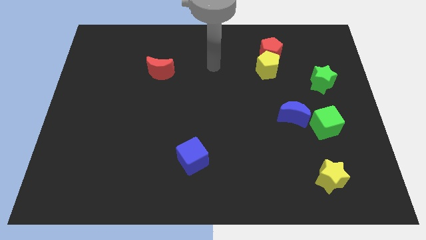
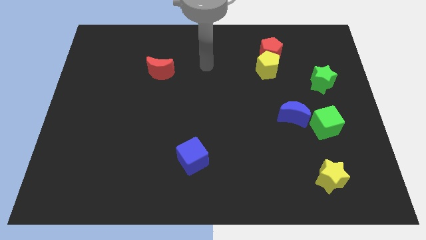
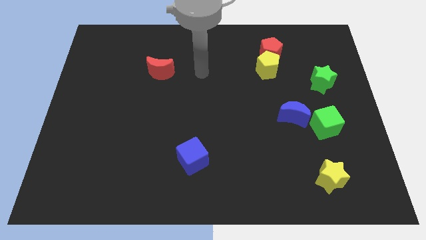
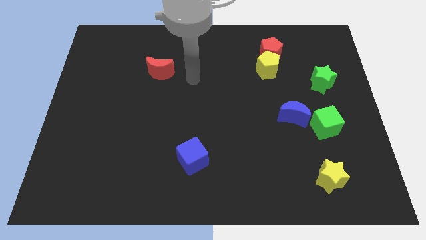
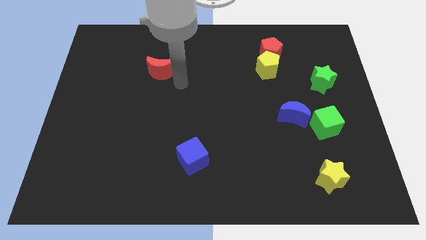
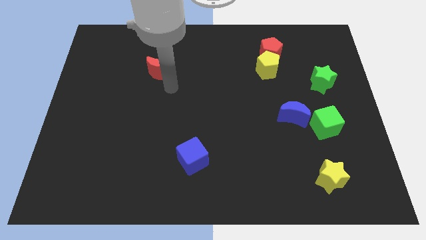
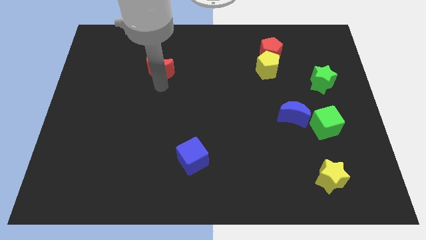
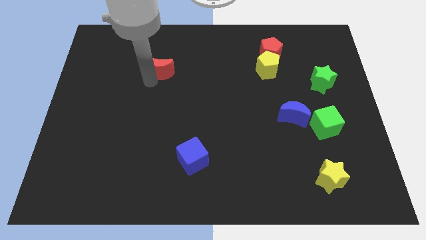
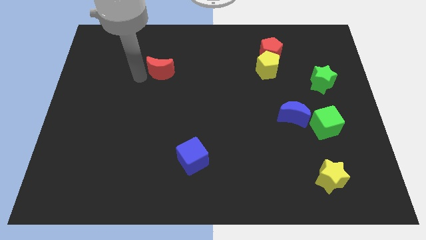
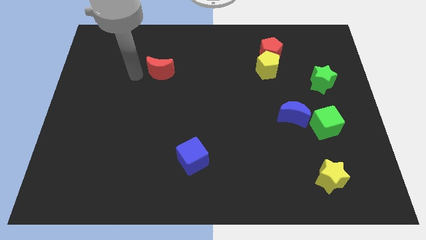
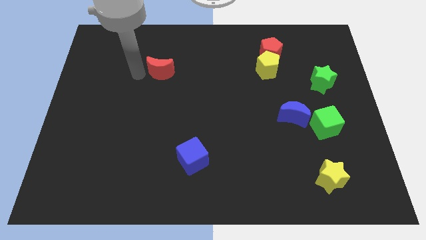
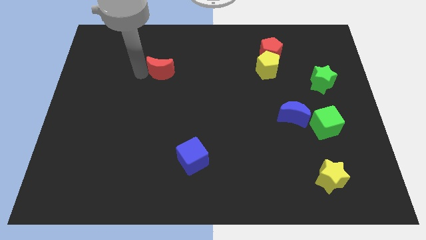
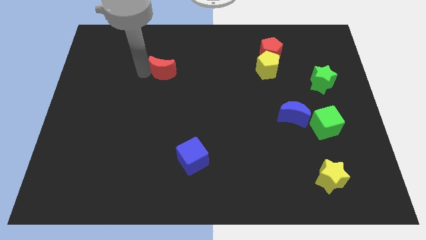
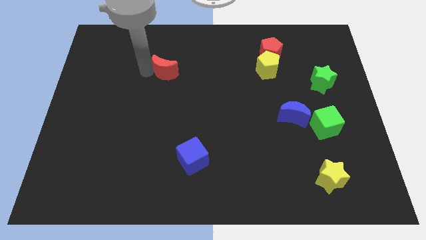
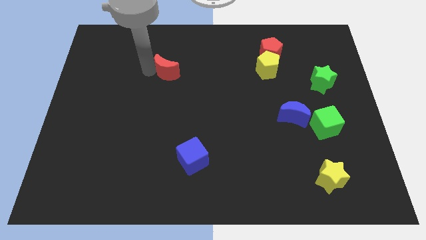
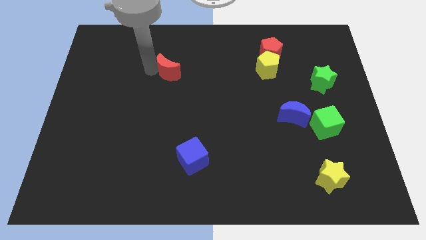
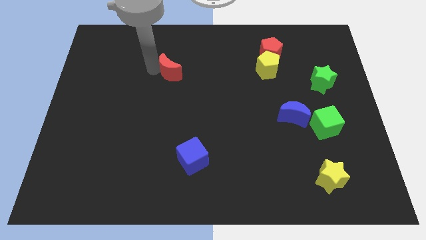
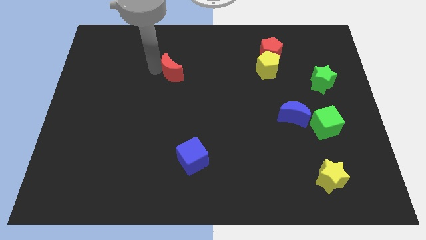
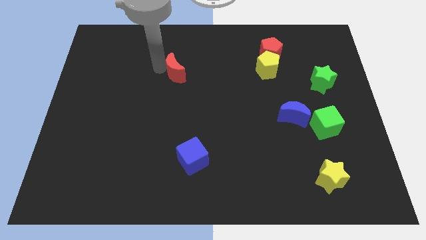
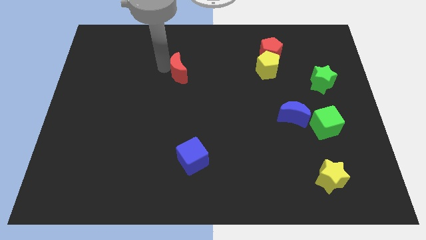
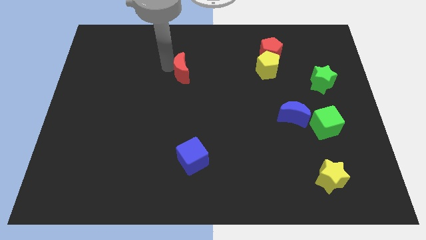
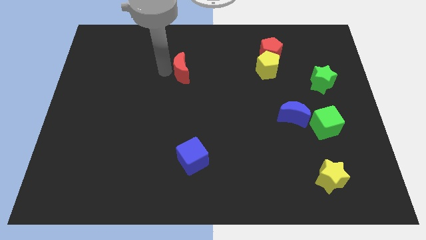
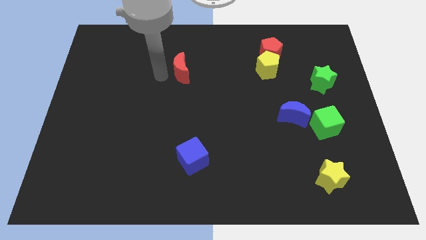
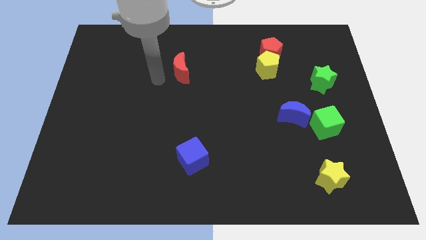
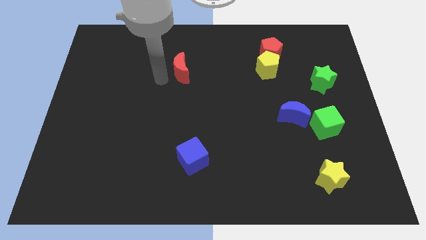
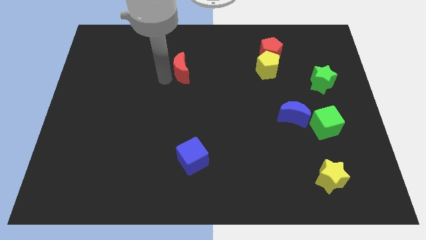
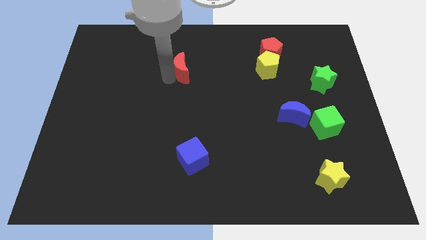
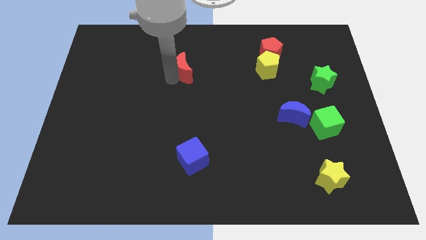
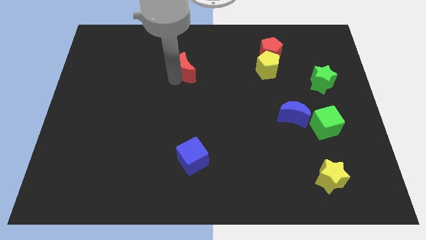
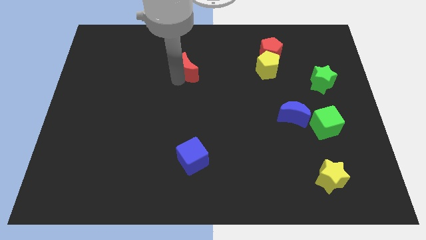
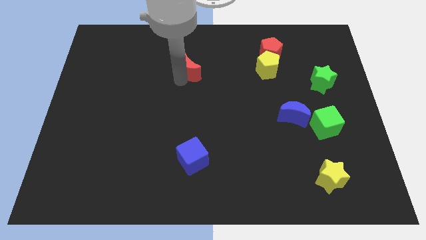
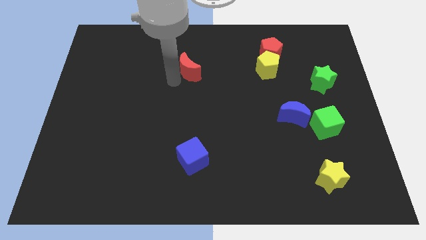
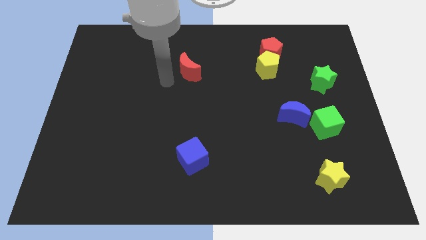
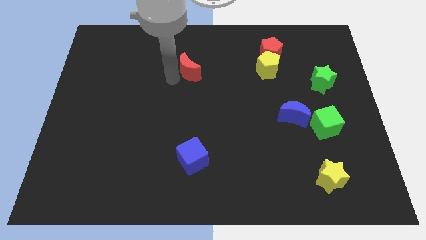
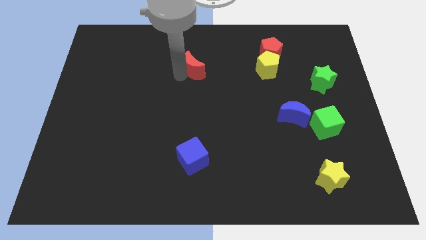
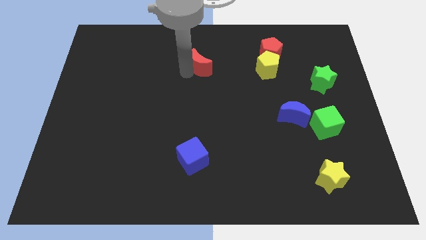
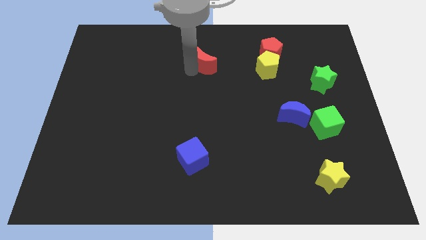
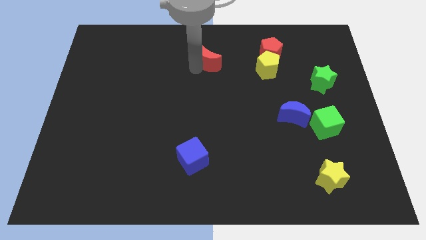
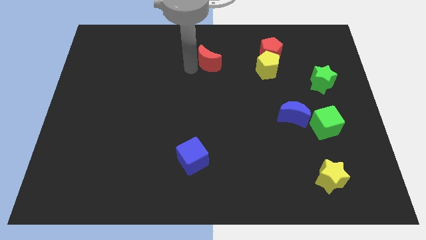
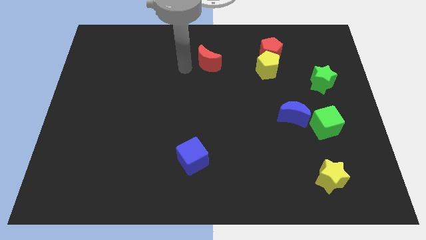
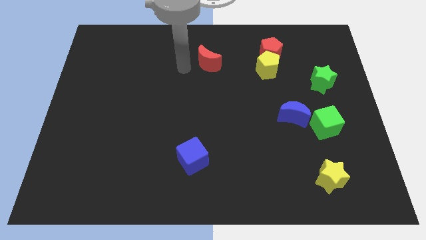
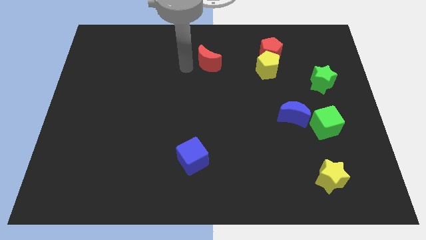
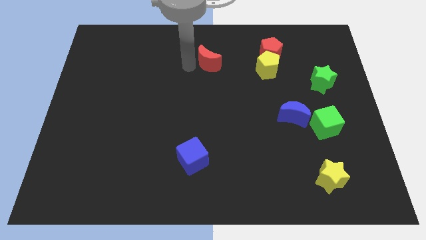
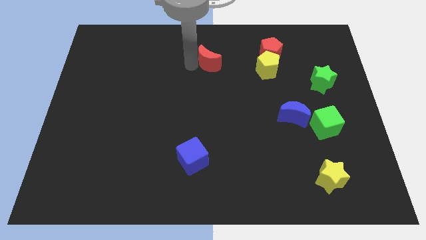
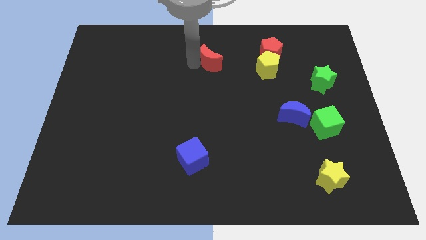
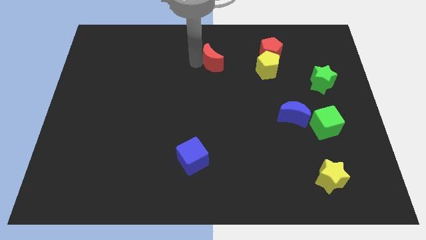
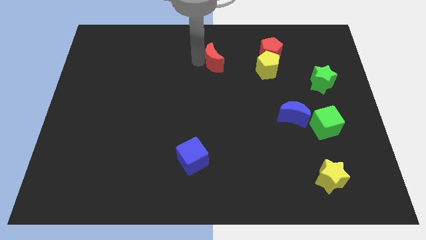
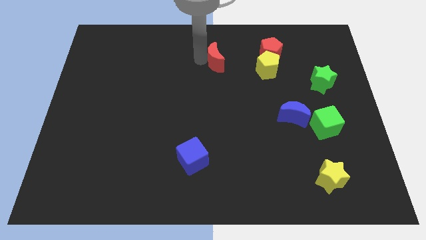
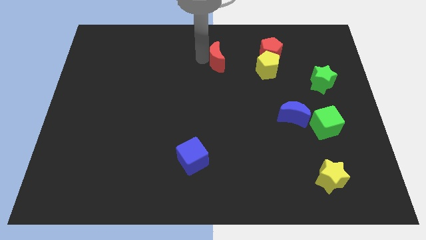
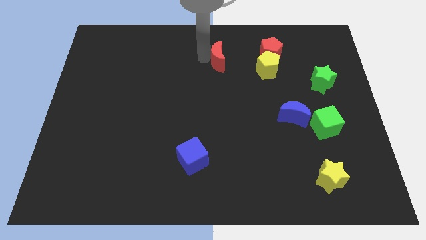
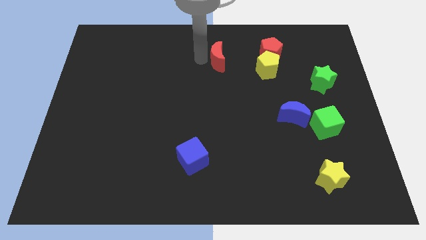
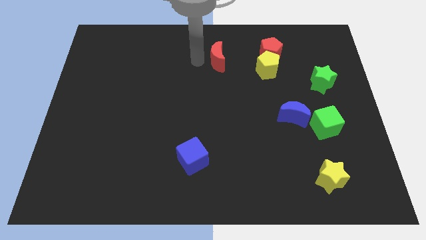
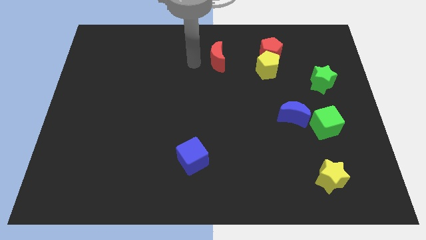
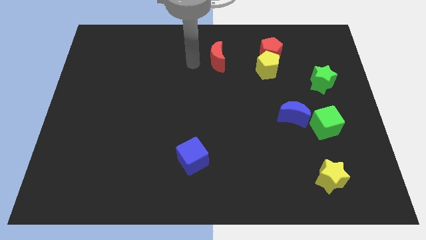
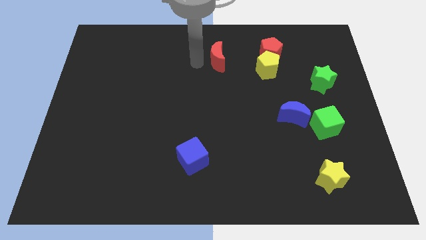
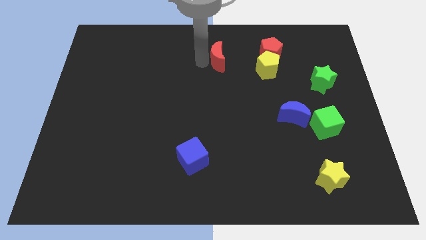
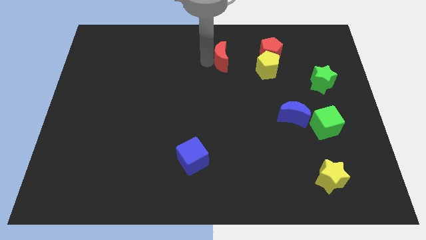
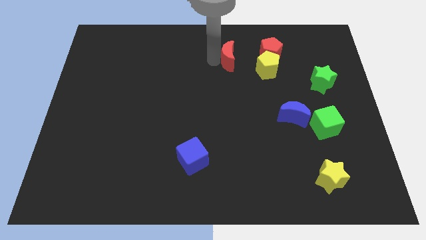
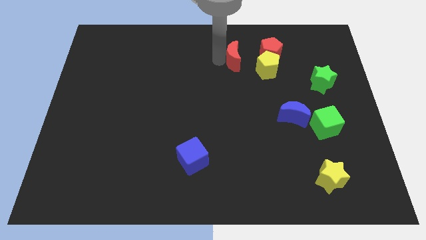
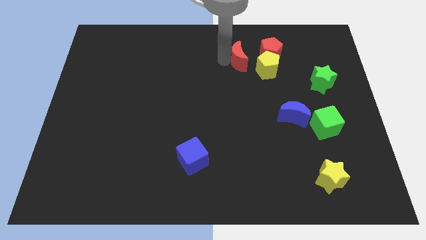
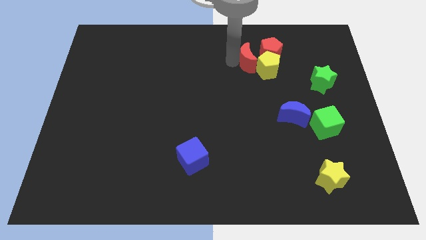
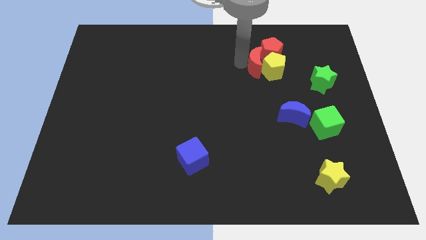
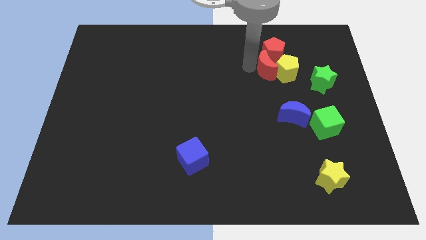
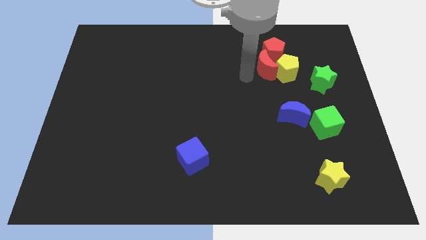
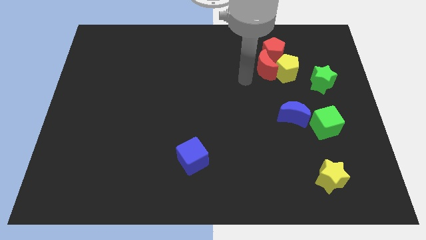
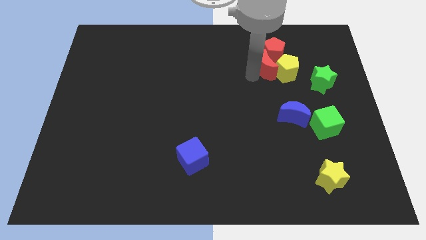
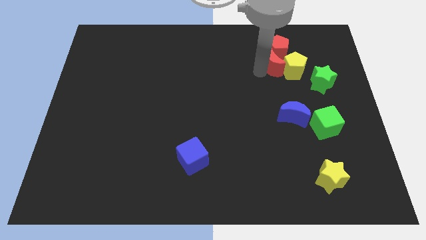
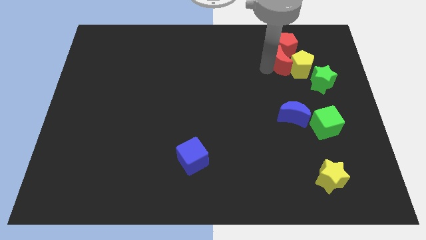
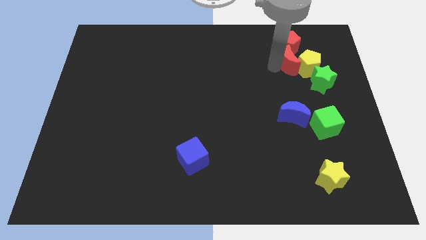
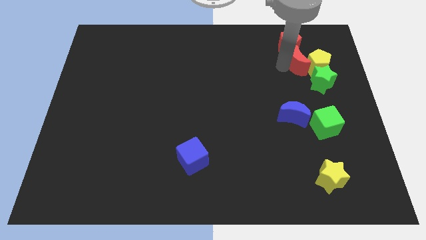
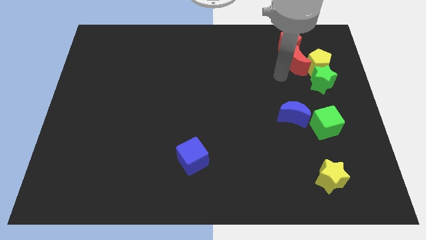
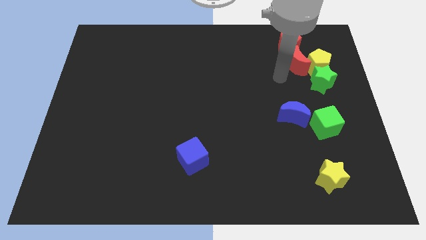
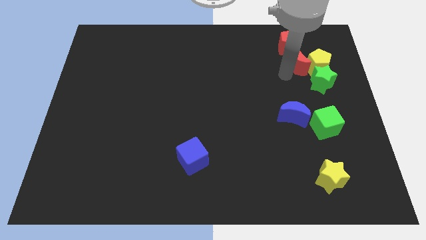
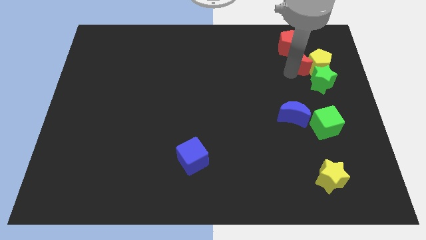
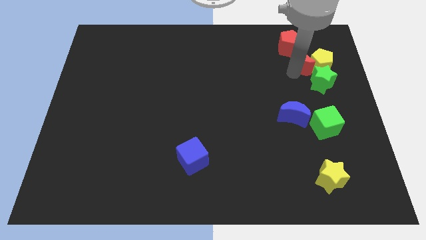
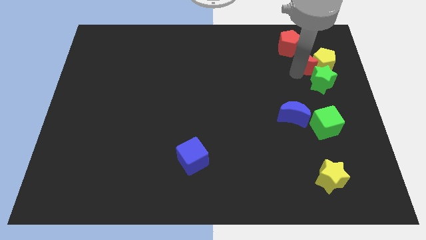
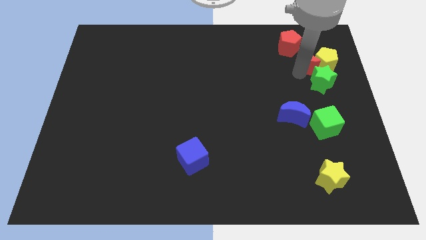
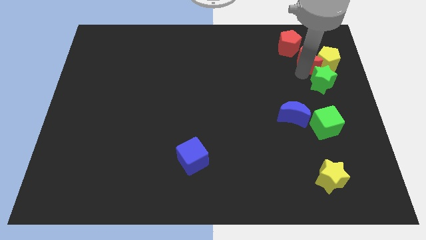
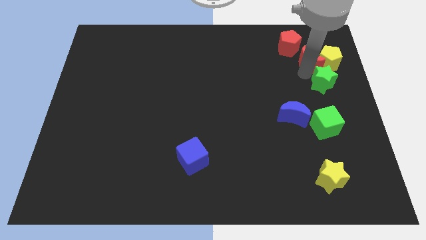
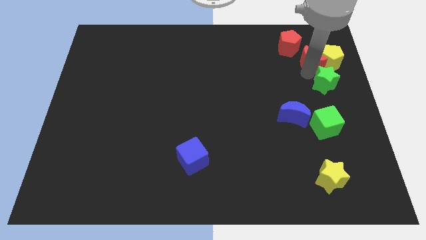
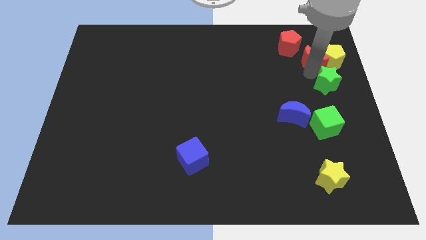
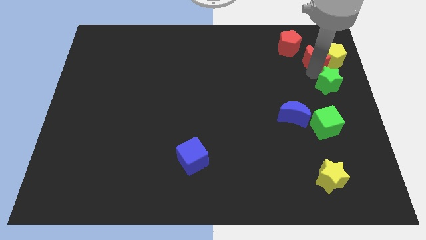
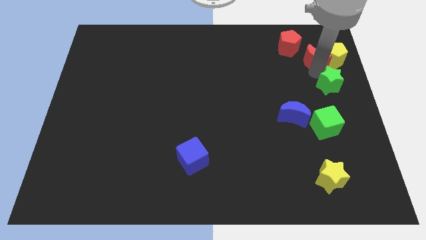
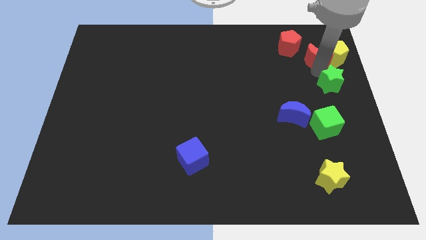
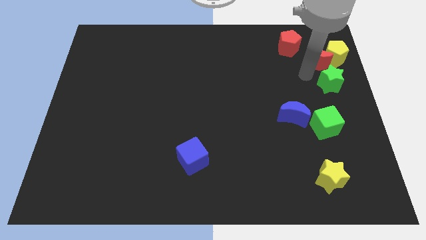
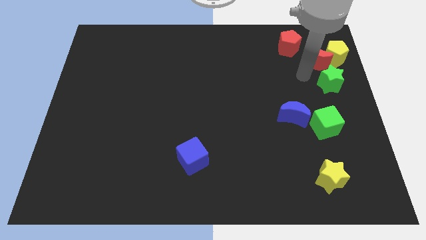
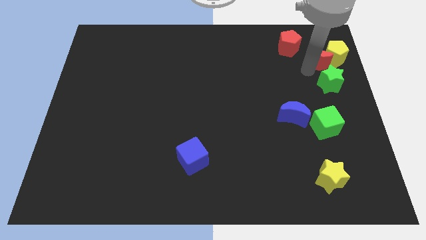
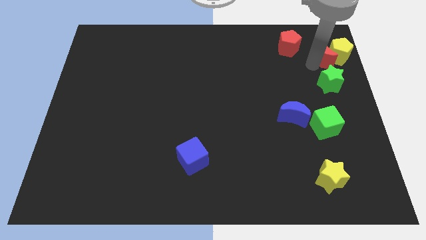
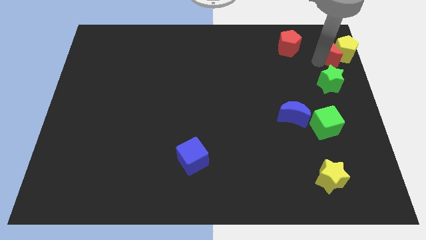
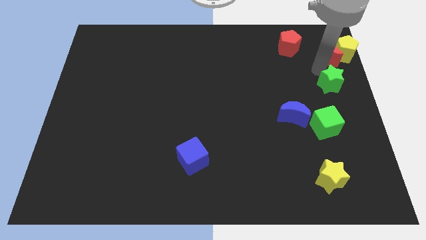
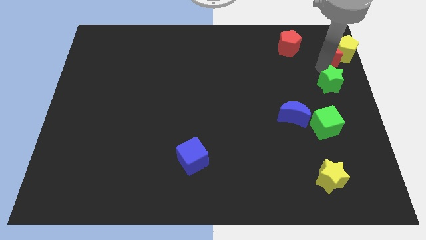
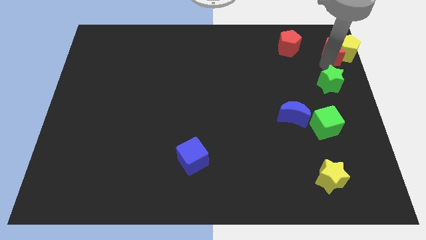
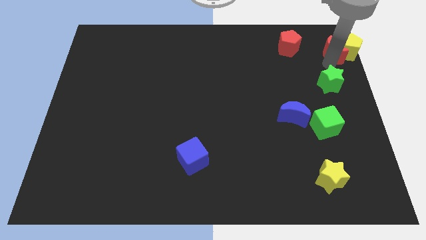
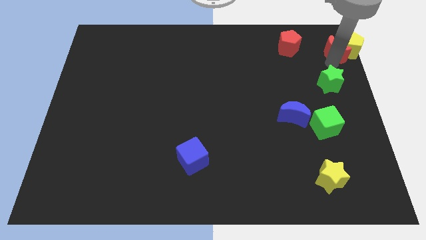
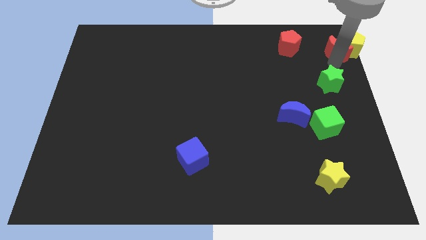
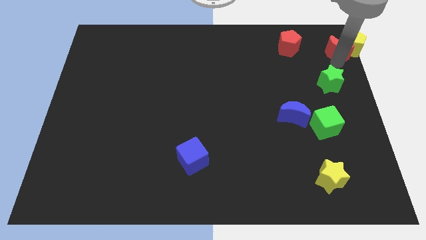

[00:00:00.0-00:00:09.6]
push the red moon to the top right
